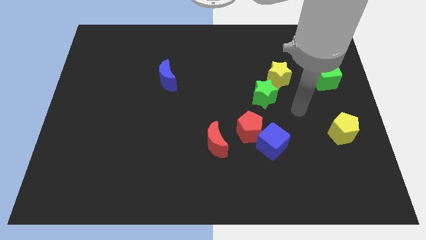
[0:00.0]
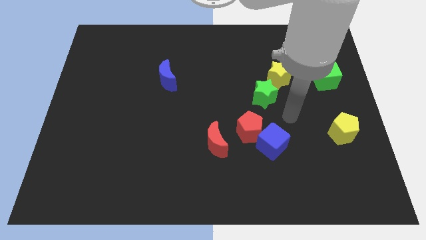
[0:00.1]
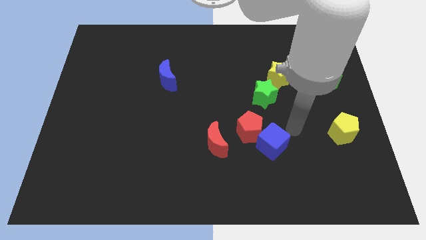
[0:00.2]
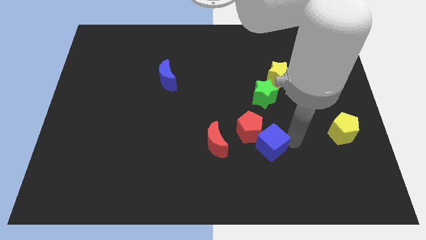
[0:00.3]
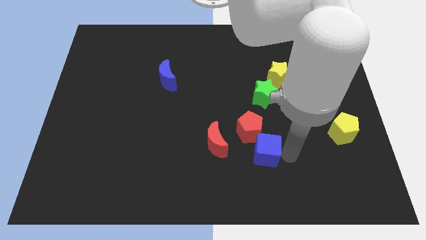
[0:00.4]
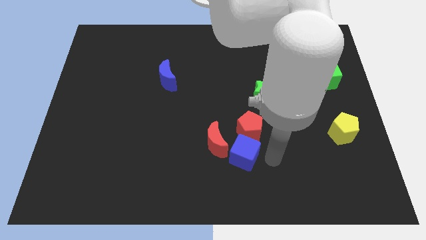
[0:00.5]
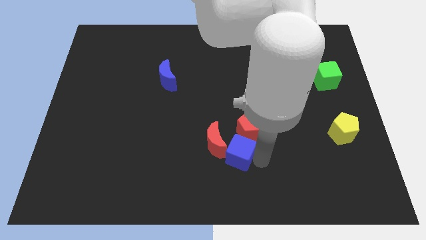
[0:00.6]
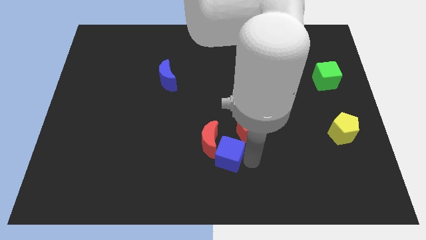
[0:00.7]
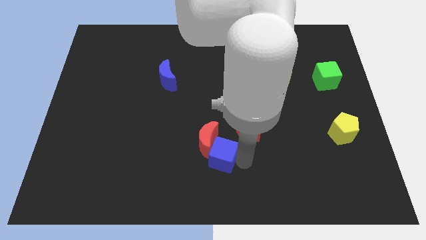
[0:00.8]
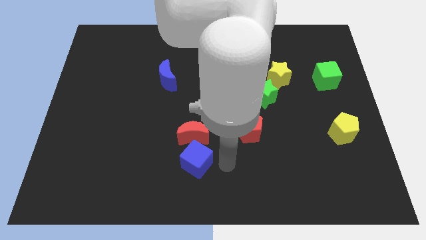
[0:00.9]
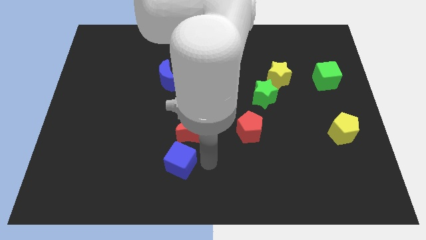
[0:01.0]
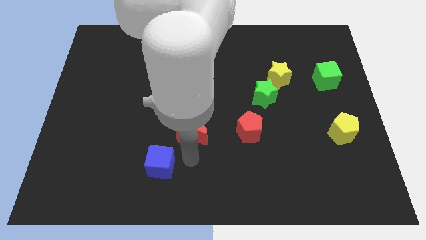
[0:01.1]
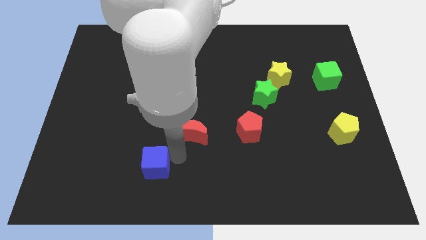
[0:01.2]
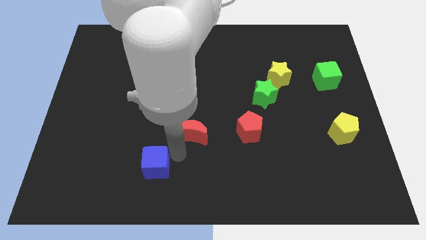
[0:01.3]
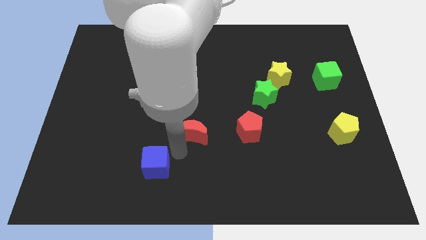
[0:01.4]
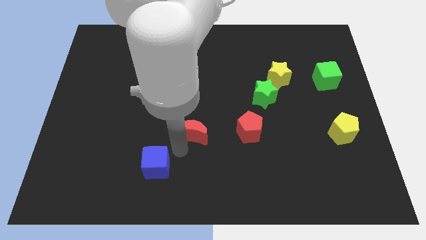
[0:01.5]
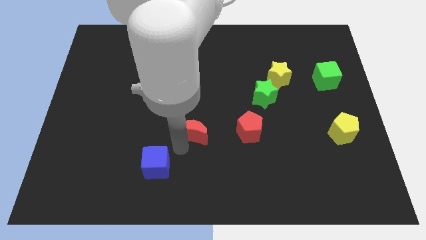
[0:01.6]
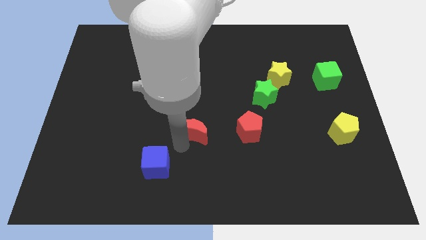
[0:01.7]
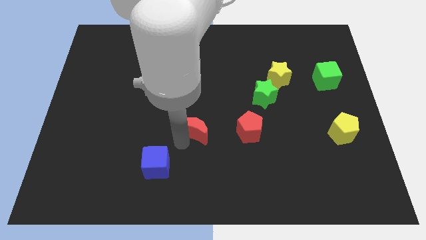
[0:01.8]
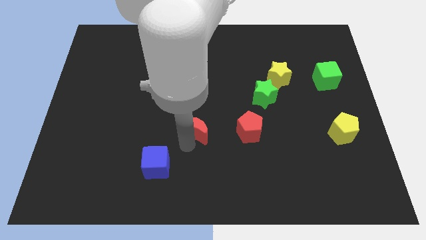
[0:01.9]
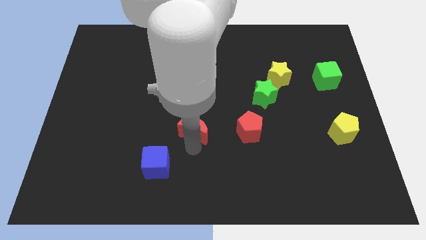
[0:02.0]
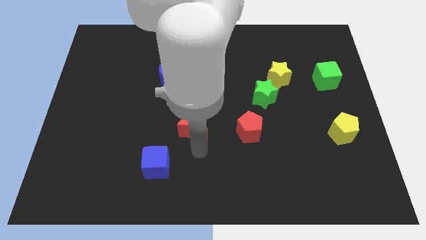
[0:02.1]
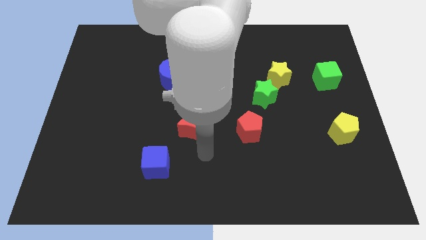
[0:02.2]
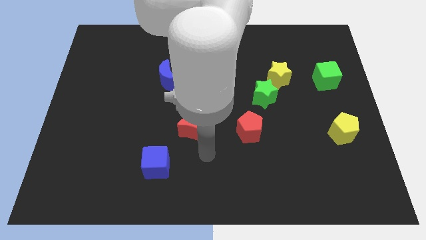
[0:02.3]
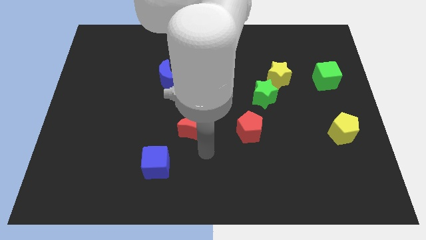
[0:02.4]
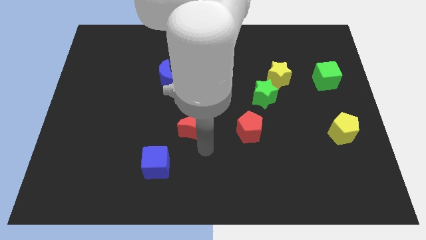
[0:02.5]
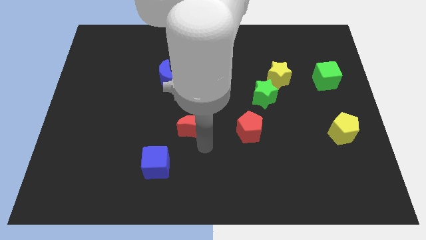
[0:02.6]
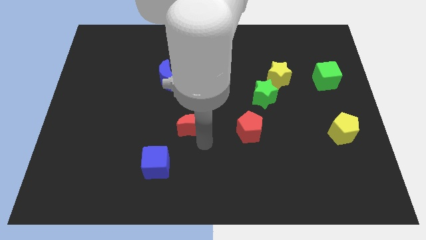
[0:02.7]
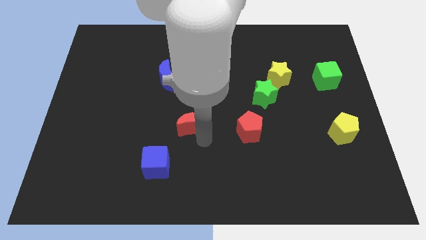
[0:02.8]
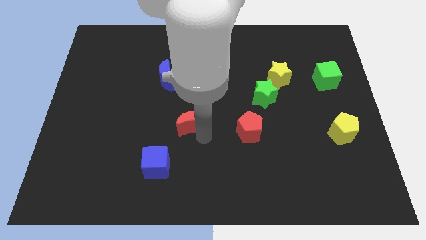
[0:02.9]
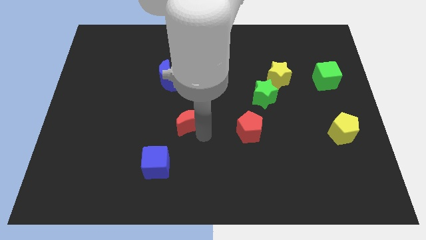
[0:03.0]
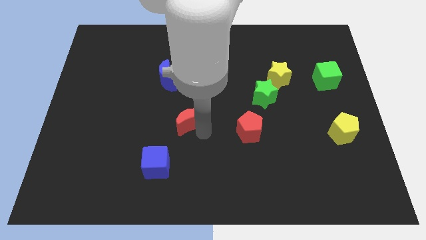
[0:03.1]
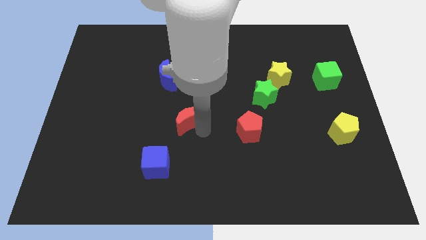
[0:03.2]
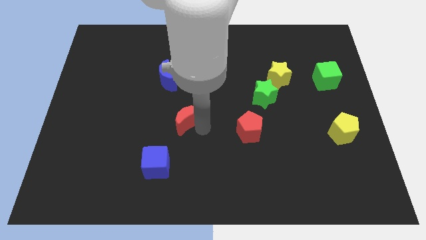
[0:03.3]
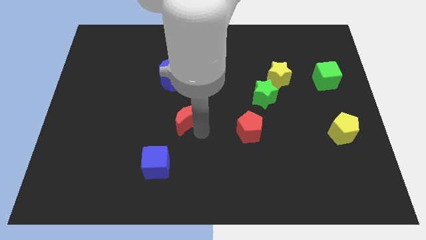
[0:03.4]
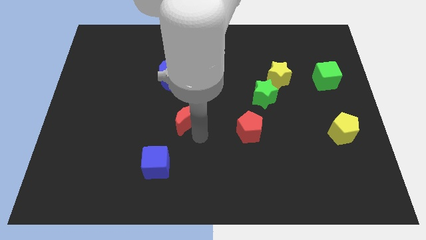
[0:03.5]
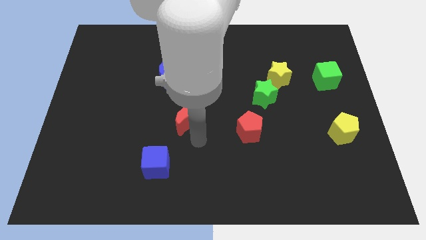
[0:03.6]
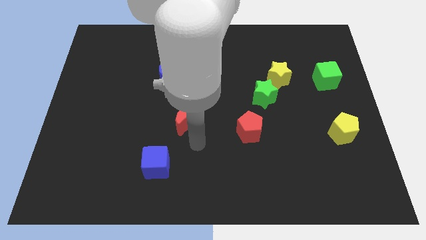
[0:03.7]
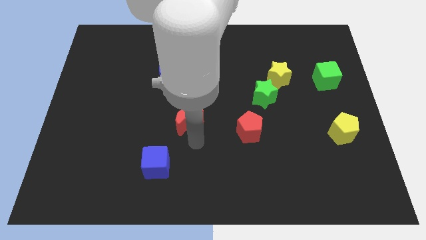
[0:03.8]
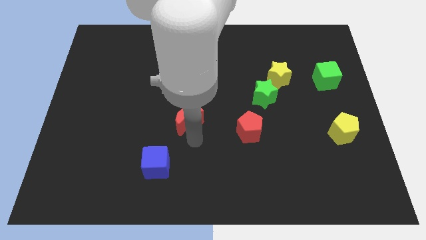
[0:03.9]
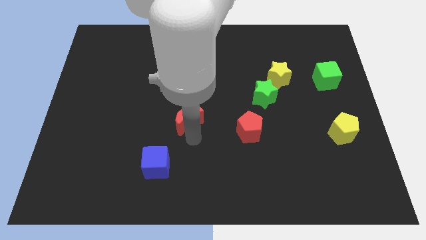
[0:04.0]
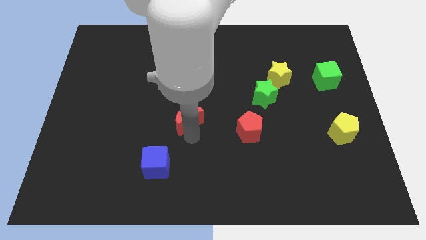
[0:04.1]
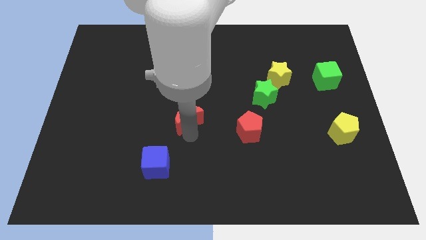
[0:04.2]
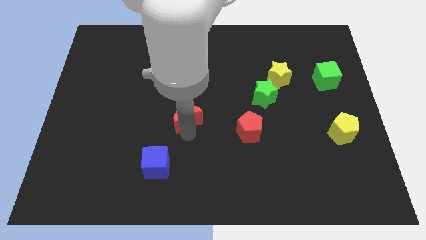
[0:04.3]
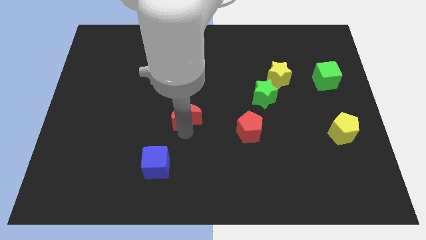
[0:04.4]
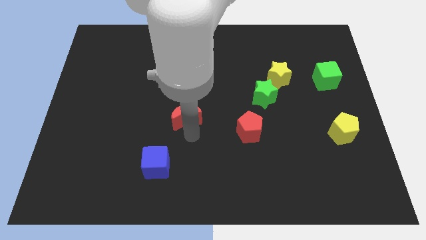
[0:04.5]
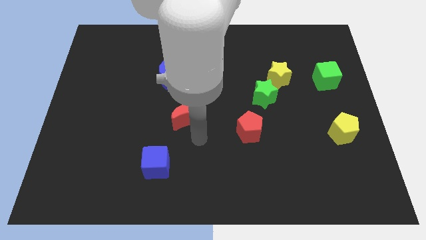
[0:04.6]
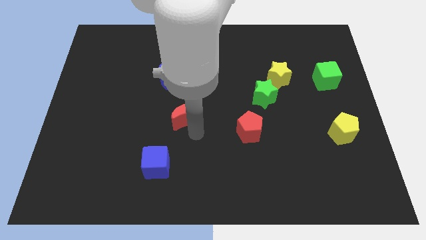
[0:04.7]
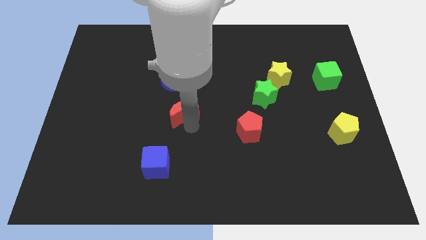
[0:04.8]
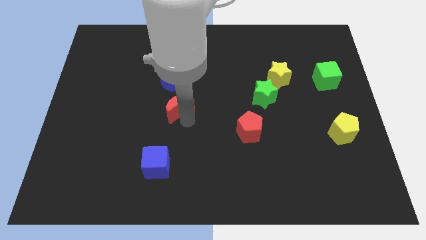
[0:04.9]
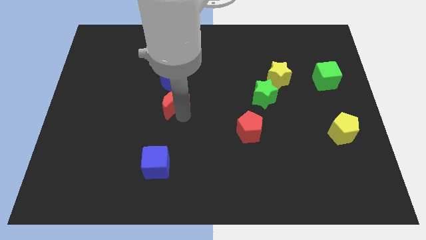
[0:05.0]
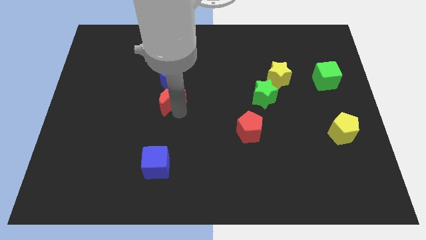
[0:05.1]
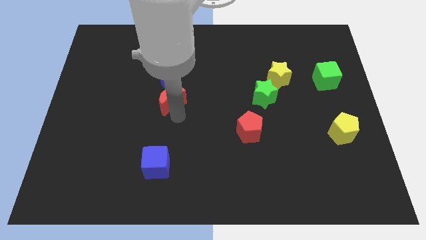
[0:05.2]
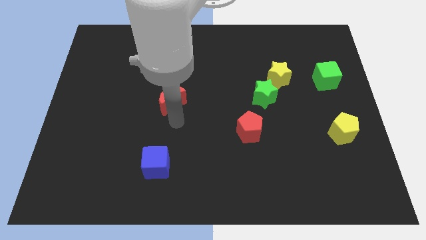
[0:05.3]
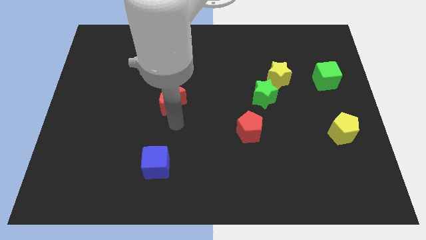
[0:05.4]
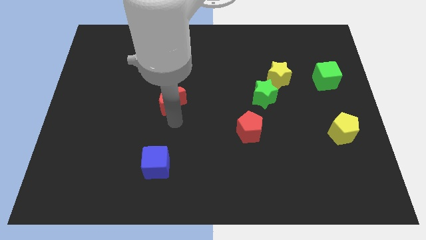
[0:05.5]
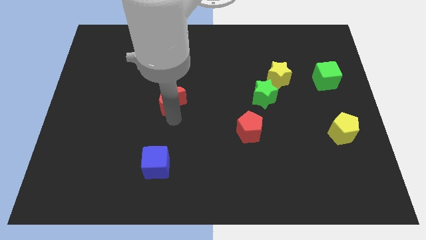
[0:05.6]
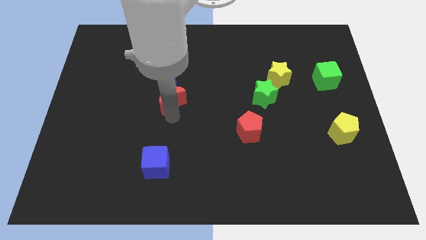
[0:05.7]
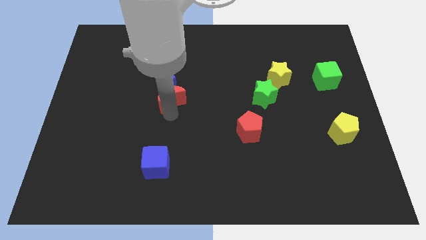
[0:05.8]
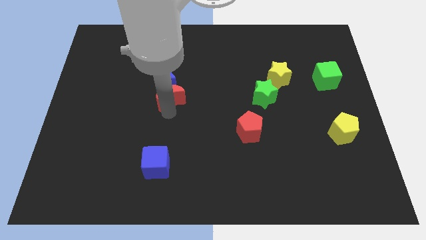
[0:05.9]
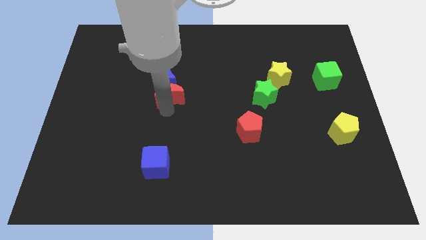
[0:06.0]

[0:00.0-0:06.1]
slide the red moon towards the blue moon

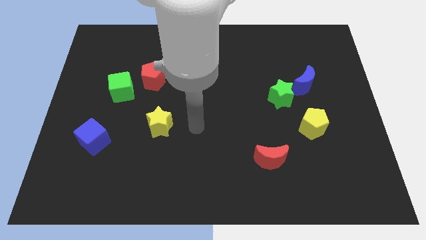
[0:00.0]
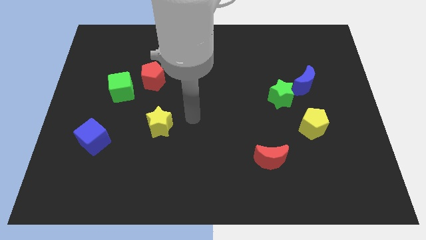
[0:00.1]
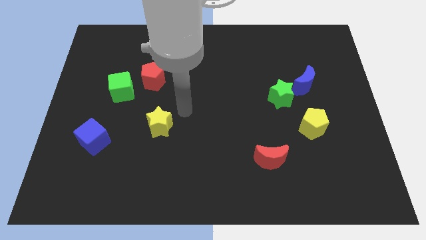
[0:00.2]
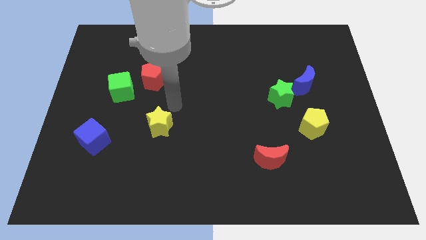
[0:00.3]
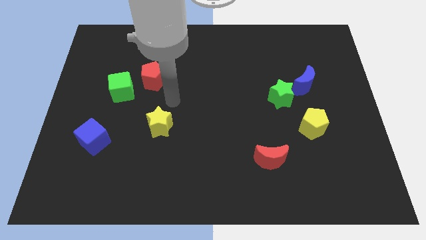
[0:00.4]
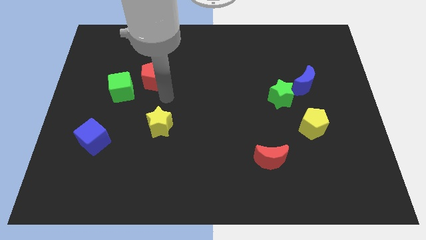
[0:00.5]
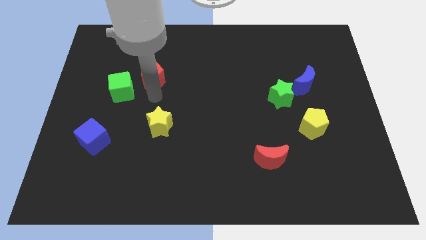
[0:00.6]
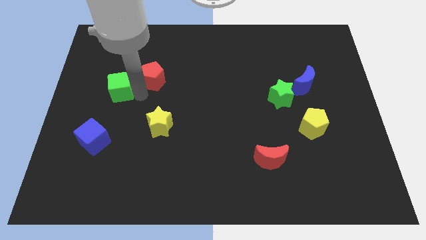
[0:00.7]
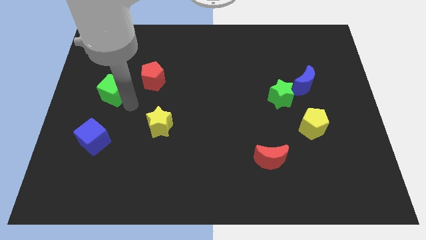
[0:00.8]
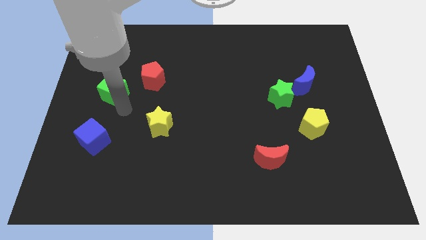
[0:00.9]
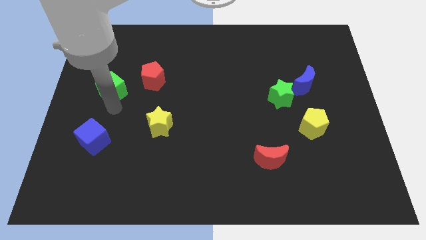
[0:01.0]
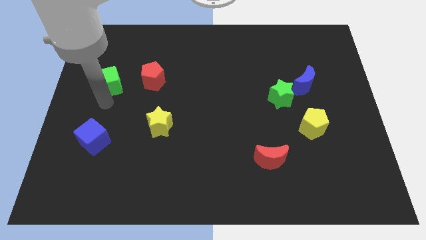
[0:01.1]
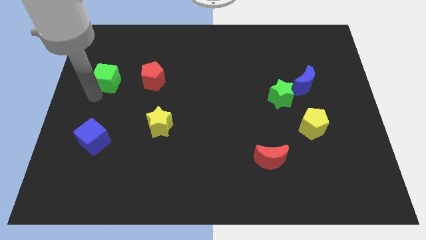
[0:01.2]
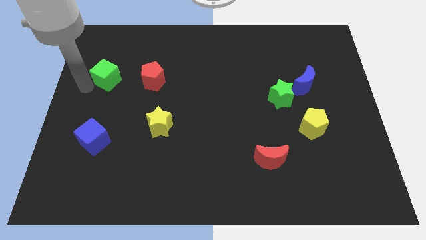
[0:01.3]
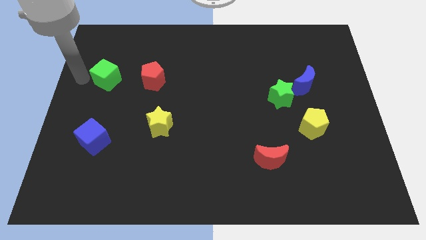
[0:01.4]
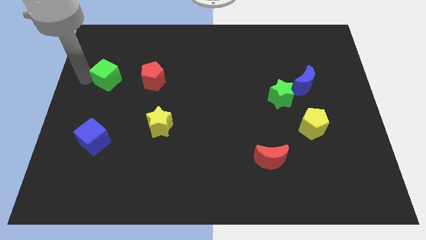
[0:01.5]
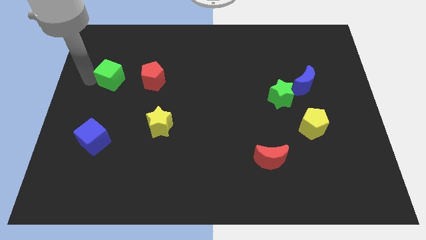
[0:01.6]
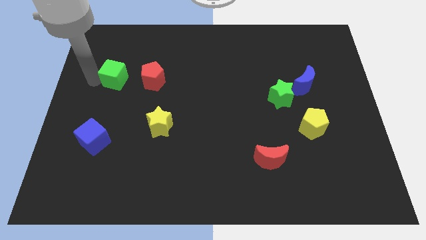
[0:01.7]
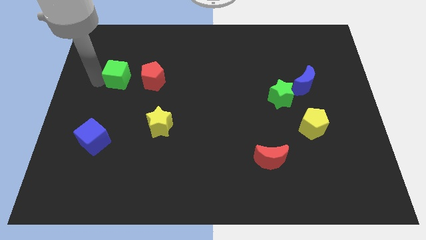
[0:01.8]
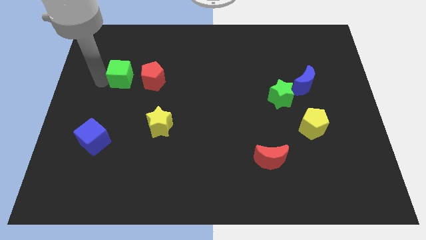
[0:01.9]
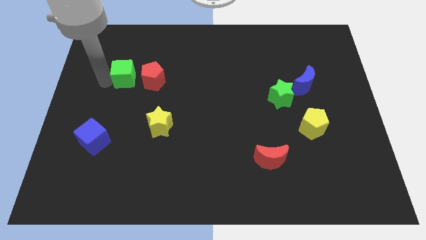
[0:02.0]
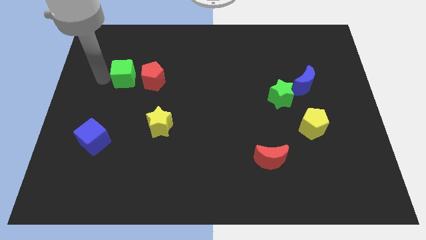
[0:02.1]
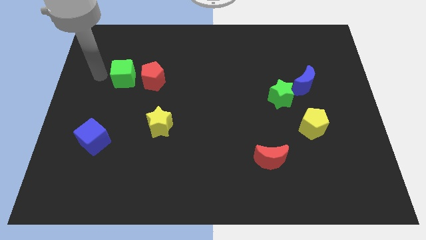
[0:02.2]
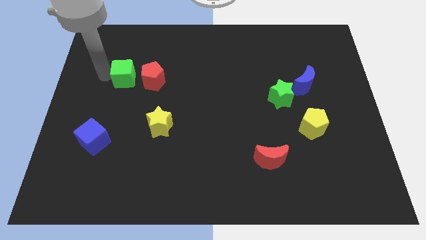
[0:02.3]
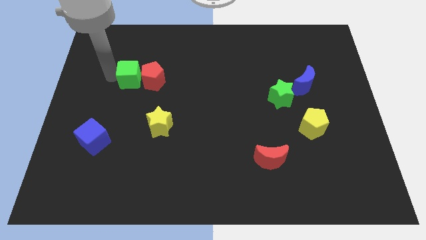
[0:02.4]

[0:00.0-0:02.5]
move the green cube next to the red pentagon
